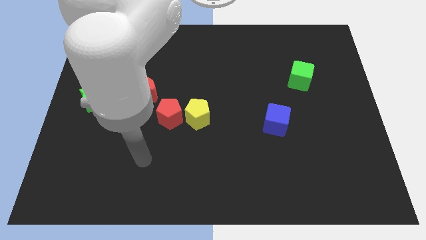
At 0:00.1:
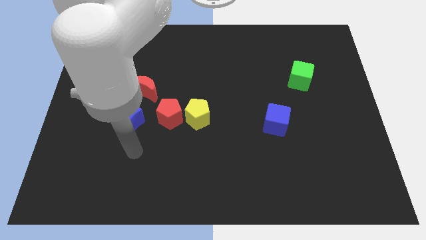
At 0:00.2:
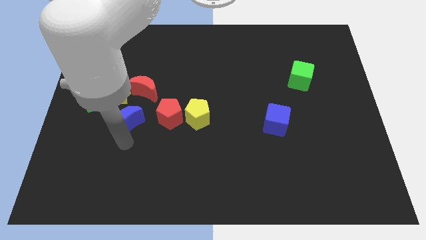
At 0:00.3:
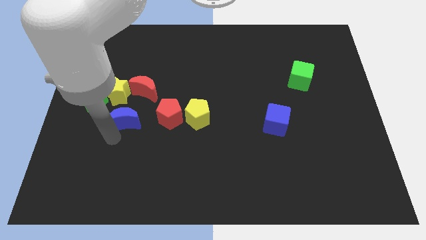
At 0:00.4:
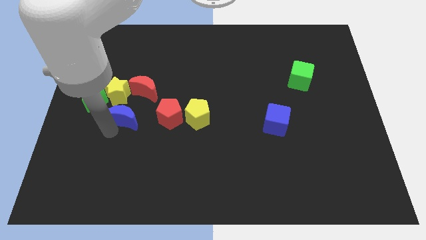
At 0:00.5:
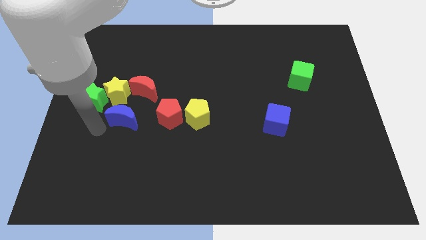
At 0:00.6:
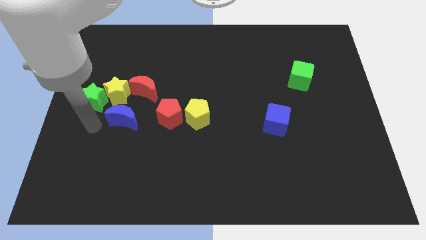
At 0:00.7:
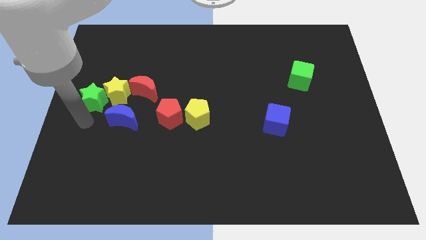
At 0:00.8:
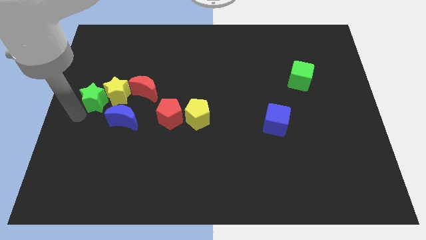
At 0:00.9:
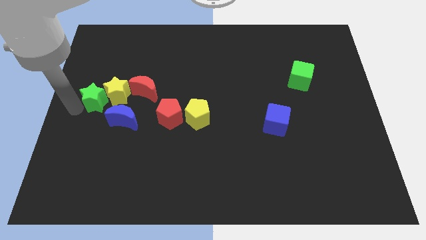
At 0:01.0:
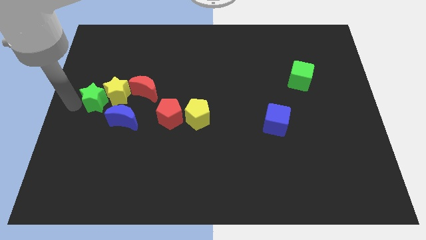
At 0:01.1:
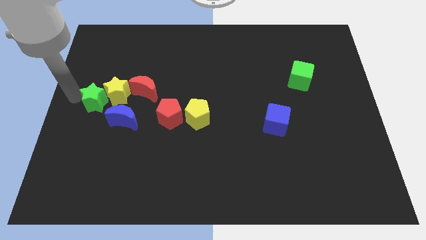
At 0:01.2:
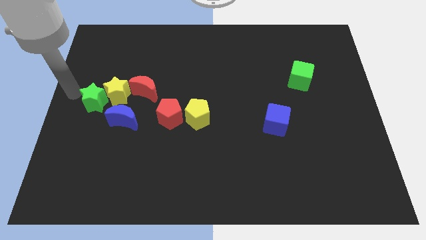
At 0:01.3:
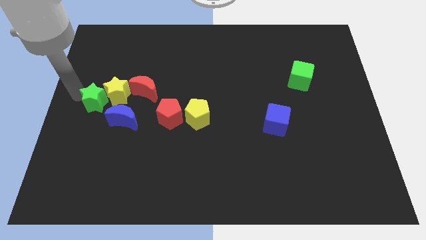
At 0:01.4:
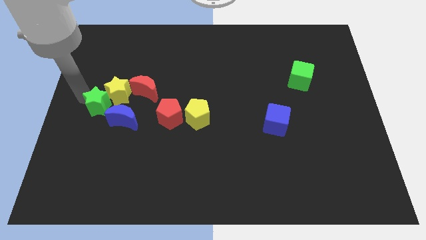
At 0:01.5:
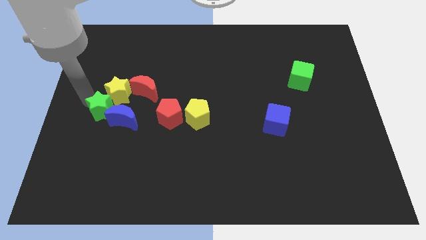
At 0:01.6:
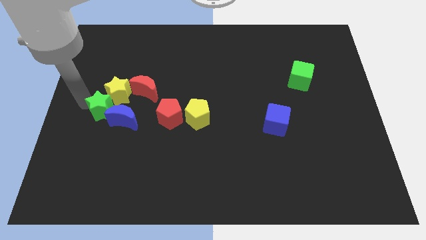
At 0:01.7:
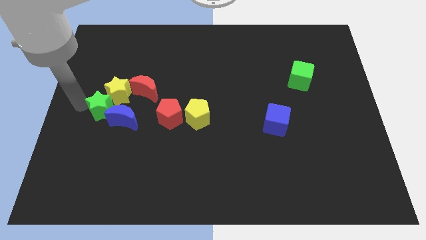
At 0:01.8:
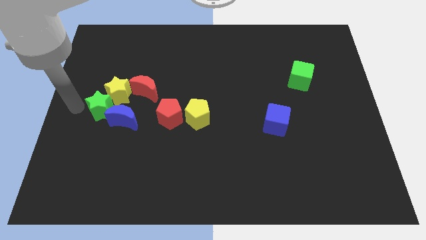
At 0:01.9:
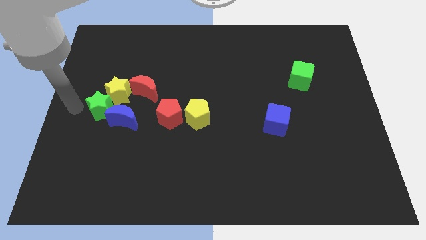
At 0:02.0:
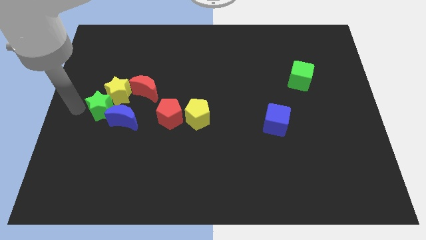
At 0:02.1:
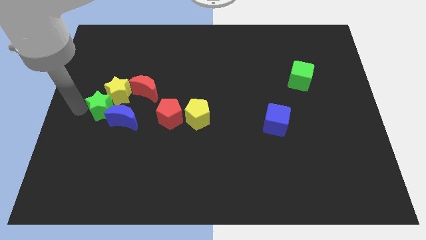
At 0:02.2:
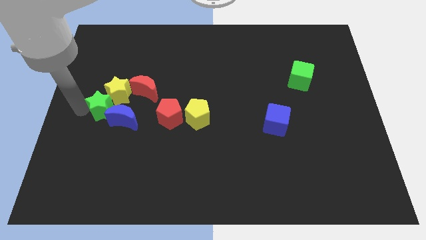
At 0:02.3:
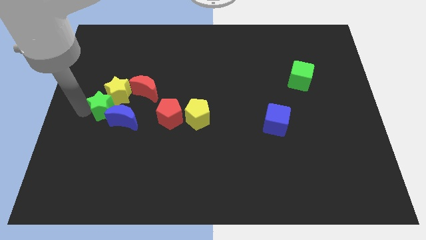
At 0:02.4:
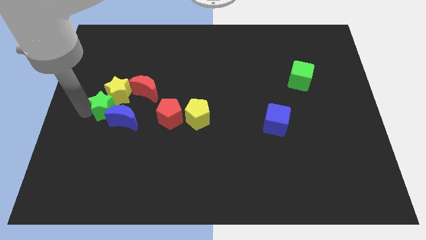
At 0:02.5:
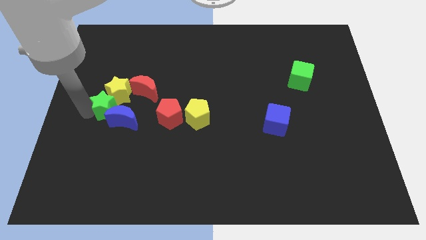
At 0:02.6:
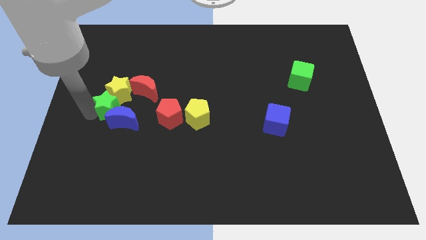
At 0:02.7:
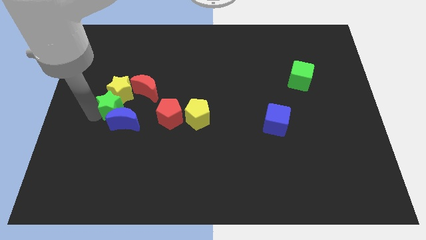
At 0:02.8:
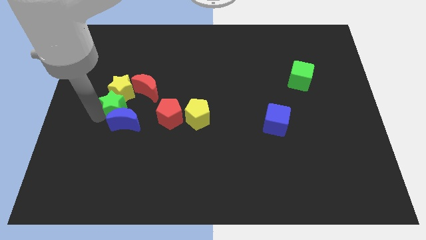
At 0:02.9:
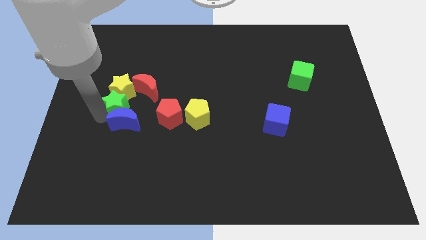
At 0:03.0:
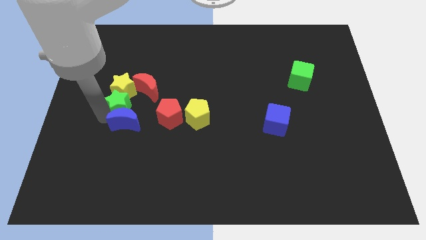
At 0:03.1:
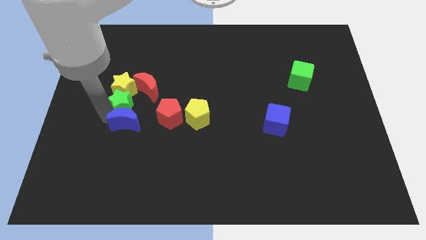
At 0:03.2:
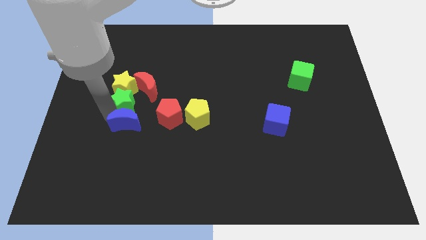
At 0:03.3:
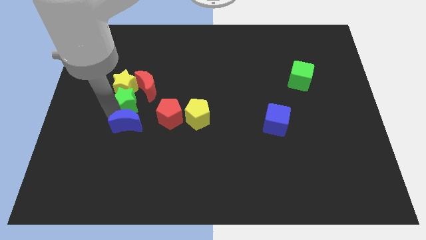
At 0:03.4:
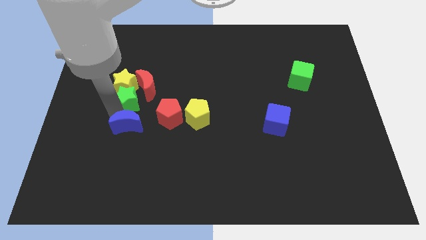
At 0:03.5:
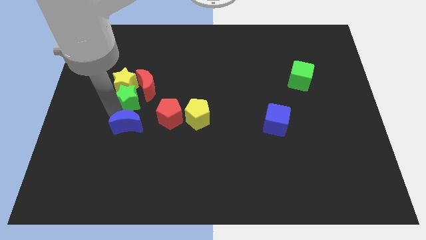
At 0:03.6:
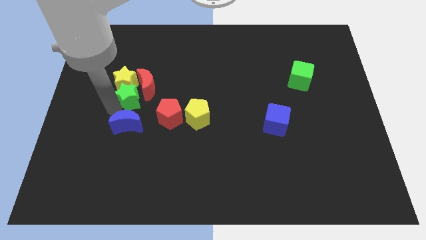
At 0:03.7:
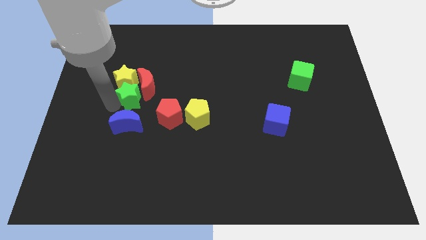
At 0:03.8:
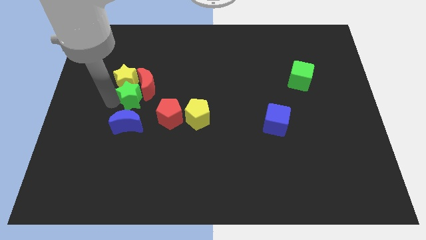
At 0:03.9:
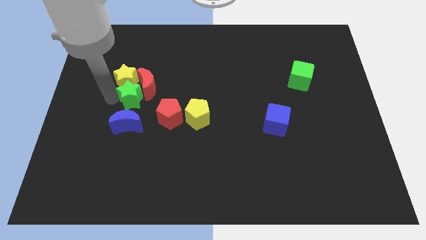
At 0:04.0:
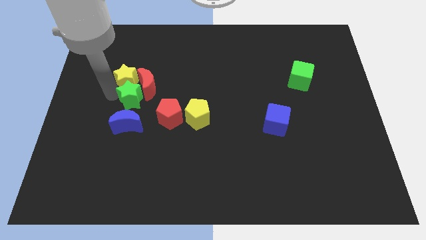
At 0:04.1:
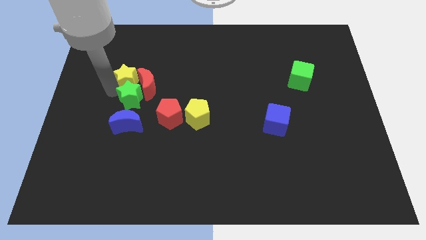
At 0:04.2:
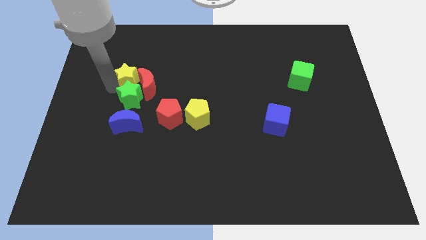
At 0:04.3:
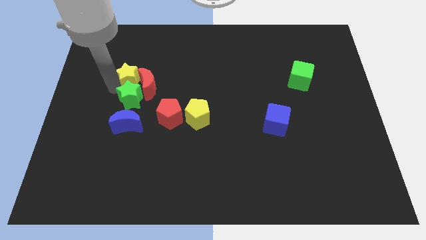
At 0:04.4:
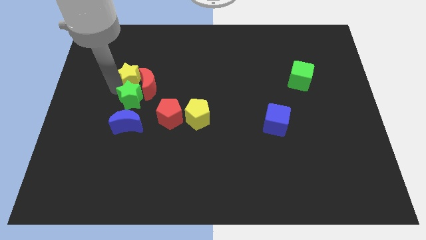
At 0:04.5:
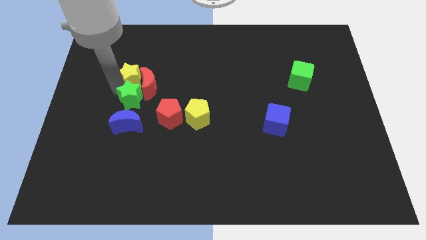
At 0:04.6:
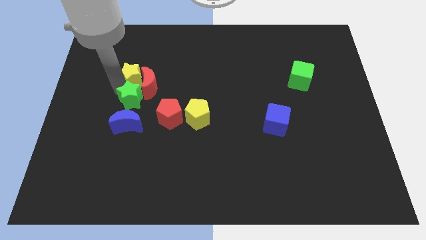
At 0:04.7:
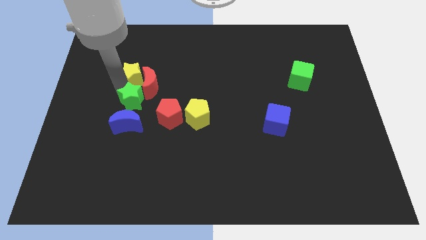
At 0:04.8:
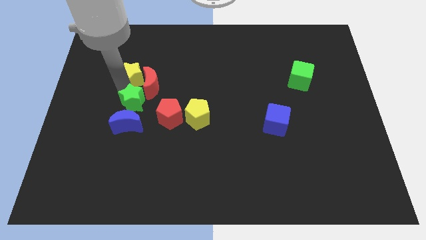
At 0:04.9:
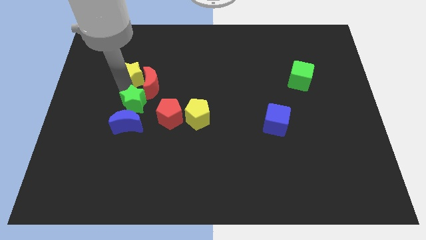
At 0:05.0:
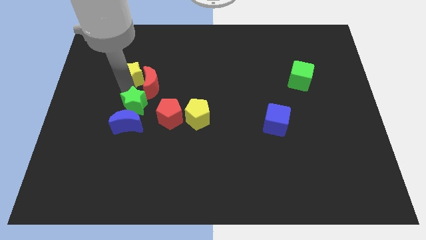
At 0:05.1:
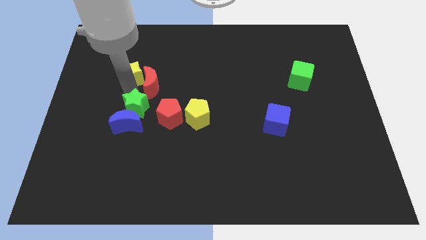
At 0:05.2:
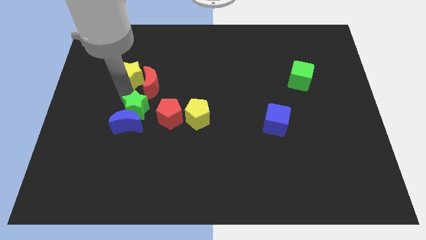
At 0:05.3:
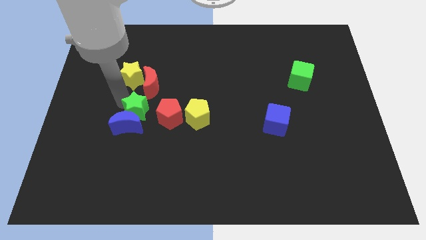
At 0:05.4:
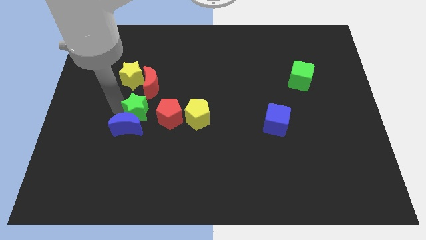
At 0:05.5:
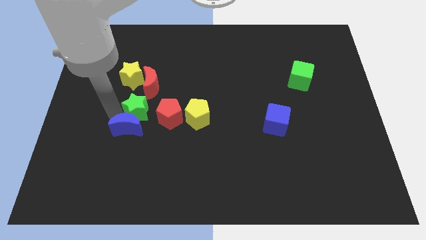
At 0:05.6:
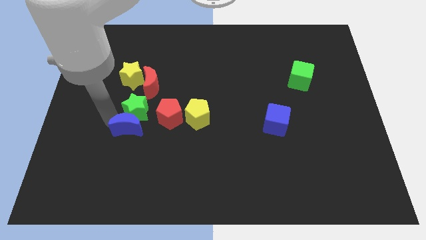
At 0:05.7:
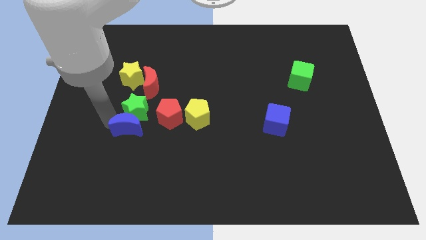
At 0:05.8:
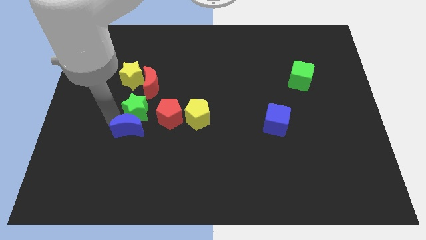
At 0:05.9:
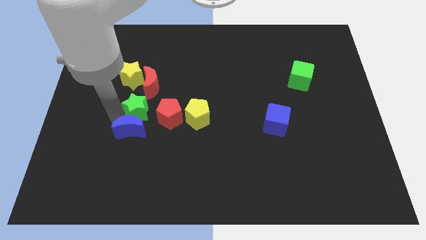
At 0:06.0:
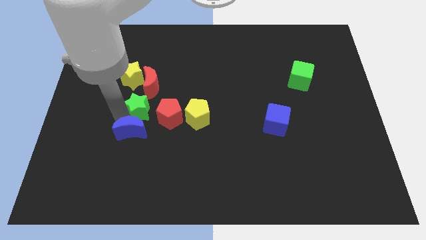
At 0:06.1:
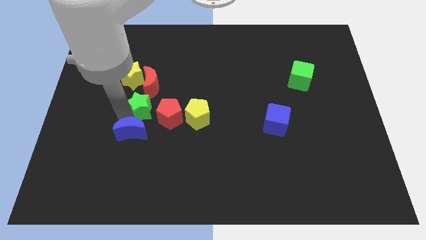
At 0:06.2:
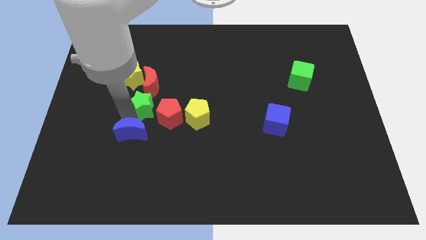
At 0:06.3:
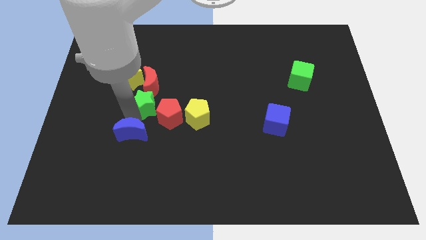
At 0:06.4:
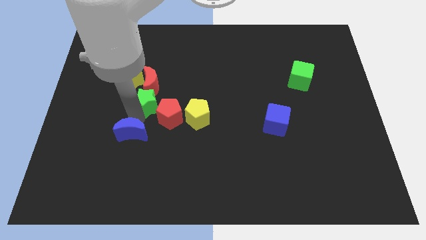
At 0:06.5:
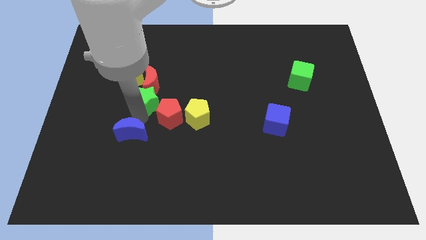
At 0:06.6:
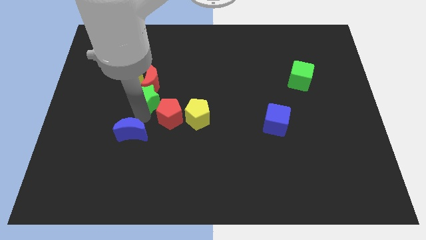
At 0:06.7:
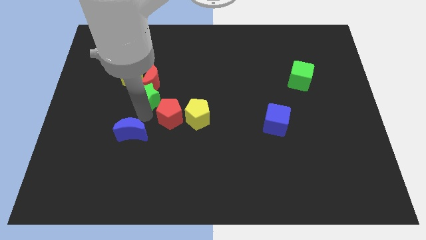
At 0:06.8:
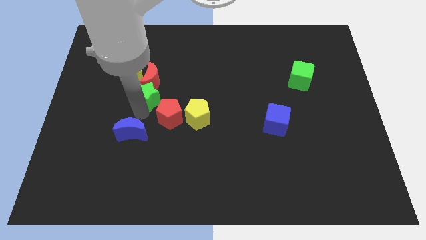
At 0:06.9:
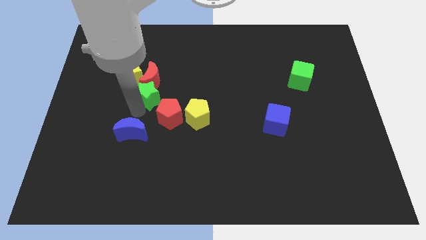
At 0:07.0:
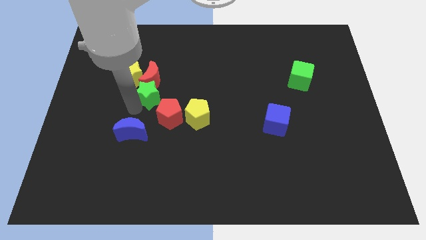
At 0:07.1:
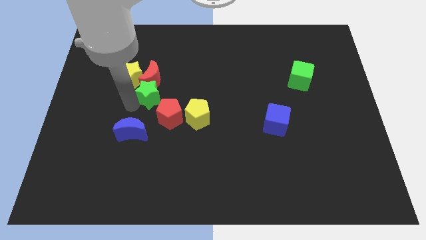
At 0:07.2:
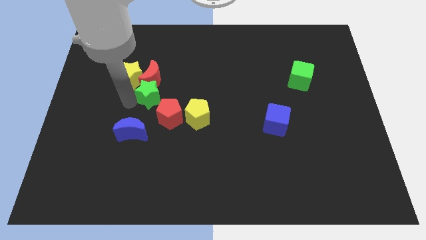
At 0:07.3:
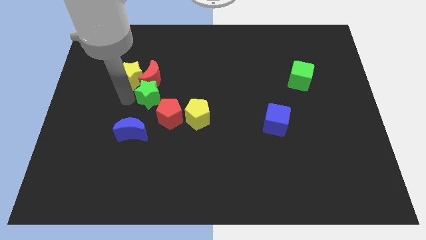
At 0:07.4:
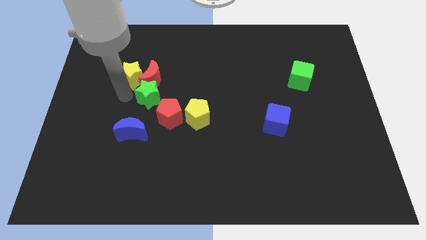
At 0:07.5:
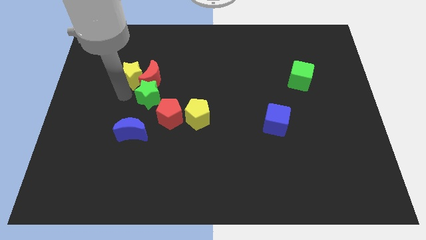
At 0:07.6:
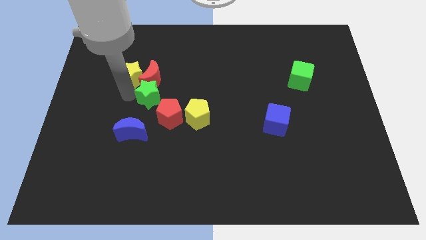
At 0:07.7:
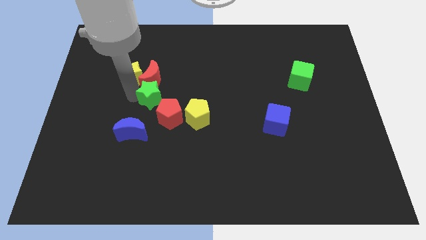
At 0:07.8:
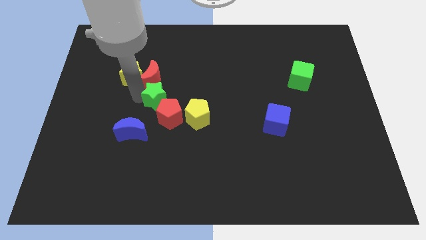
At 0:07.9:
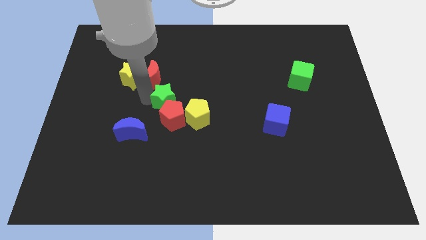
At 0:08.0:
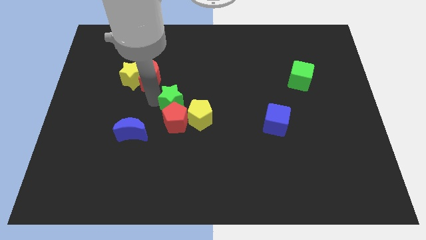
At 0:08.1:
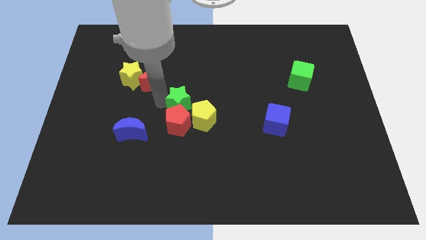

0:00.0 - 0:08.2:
move the green star to the right
